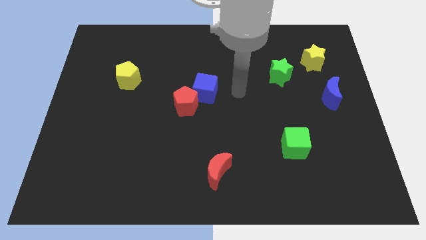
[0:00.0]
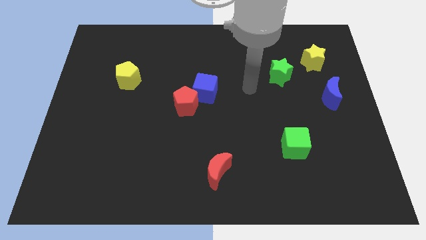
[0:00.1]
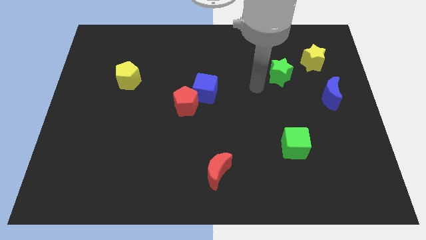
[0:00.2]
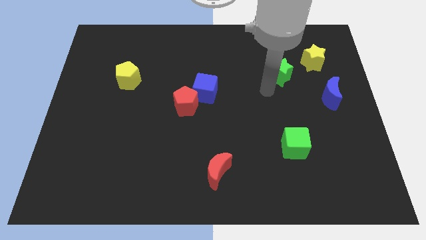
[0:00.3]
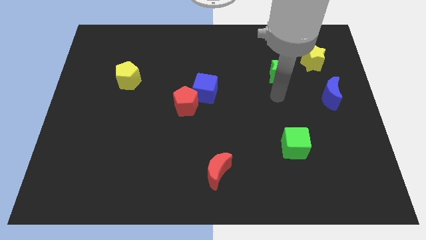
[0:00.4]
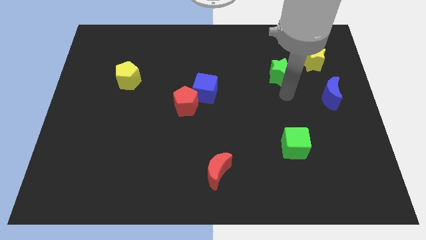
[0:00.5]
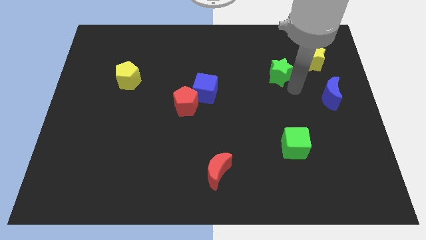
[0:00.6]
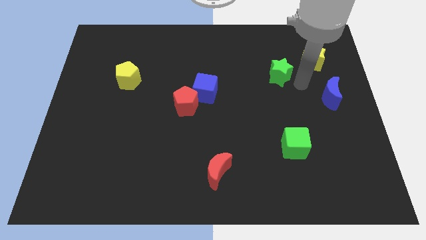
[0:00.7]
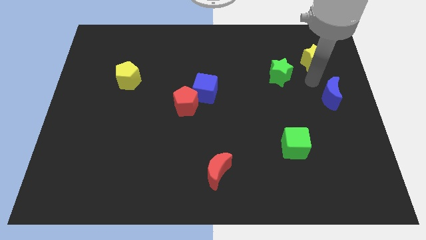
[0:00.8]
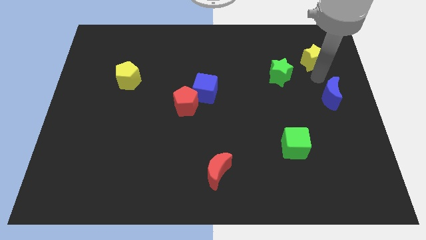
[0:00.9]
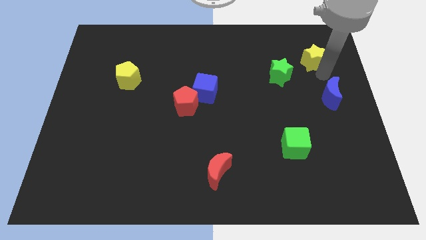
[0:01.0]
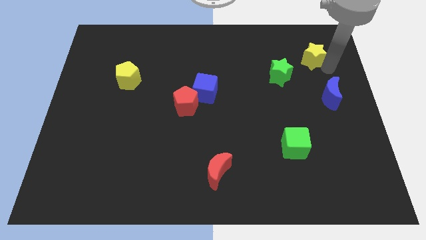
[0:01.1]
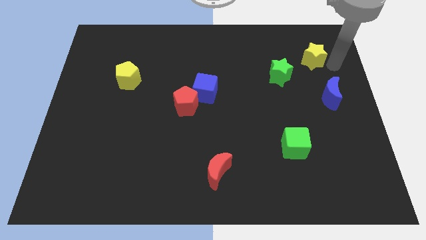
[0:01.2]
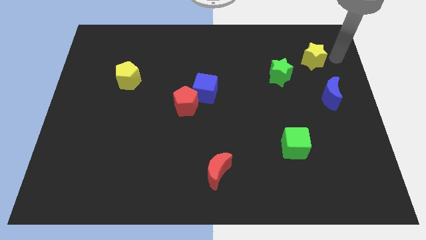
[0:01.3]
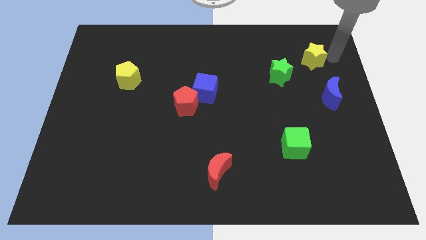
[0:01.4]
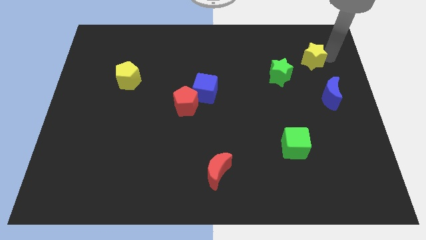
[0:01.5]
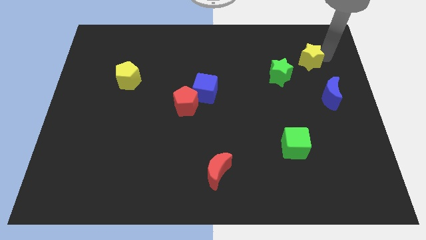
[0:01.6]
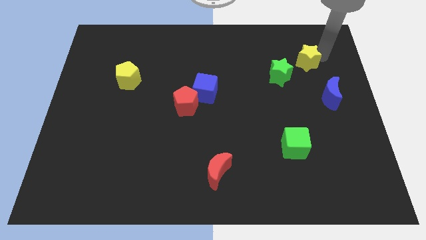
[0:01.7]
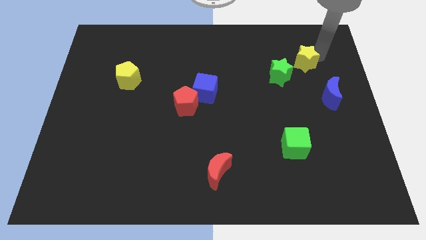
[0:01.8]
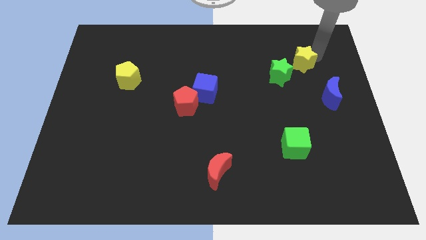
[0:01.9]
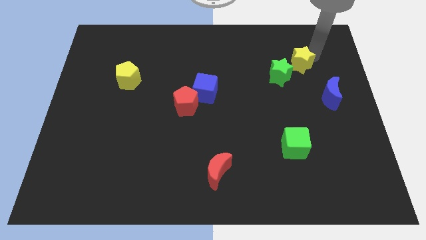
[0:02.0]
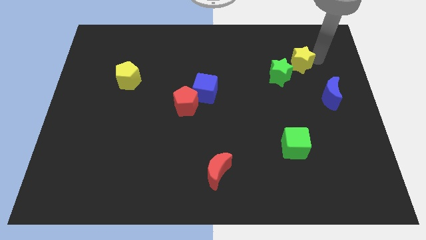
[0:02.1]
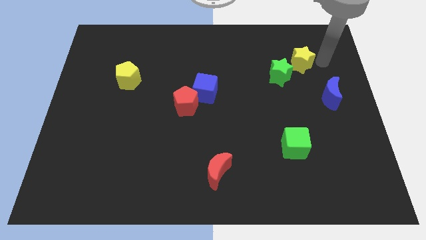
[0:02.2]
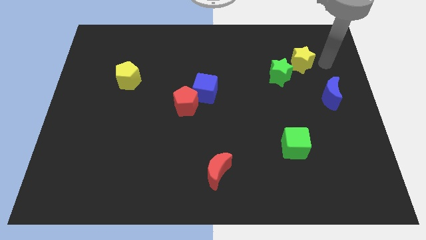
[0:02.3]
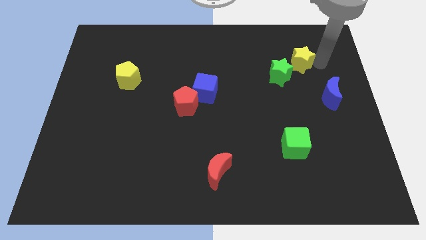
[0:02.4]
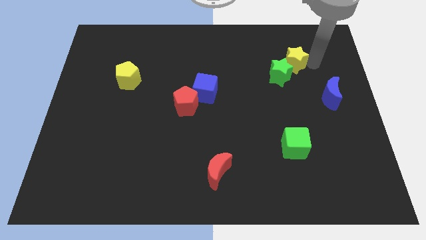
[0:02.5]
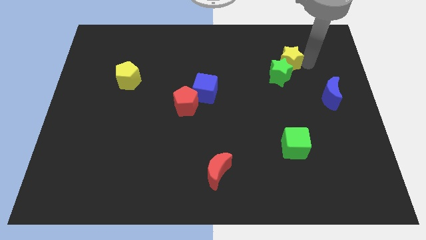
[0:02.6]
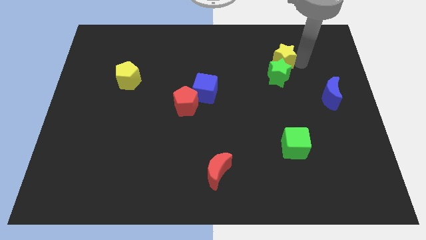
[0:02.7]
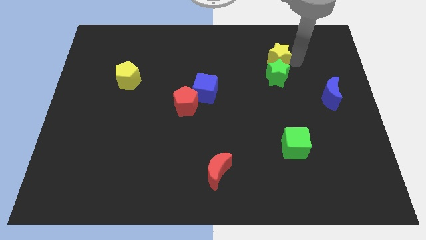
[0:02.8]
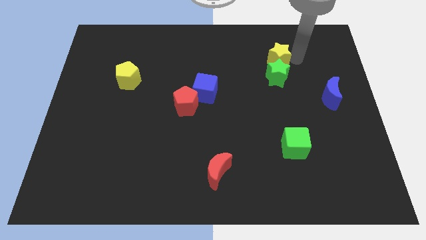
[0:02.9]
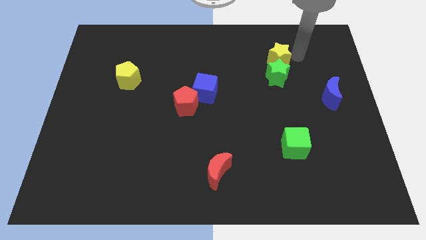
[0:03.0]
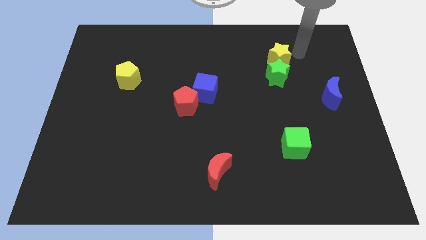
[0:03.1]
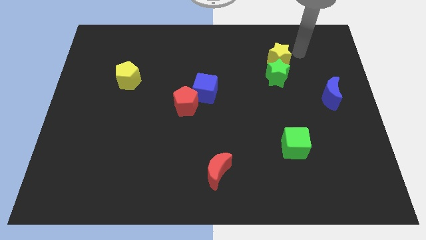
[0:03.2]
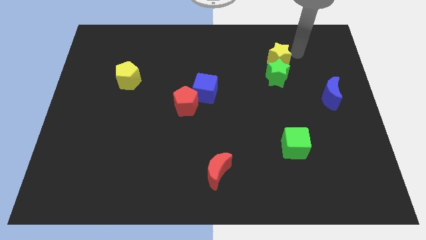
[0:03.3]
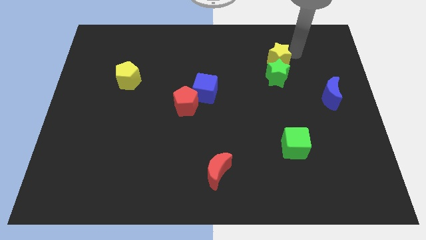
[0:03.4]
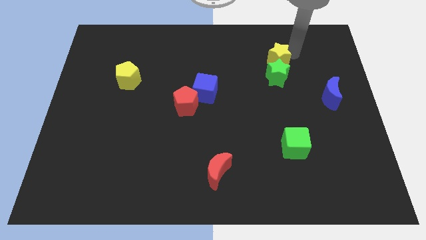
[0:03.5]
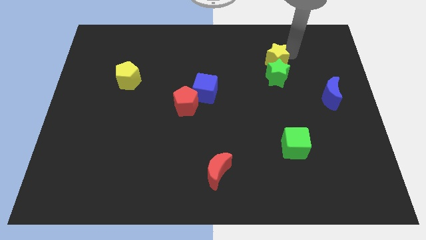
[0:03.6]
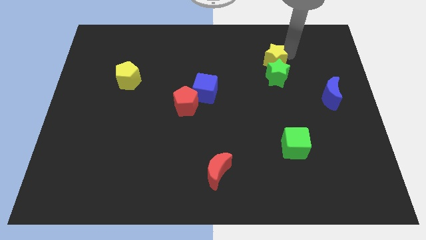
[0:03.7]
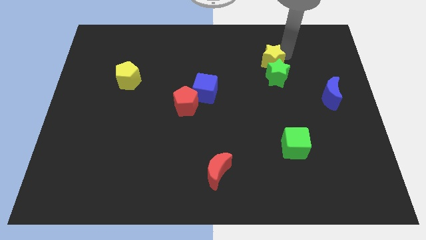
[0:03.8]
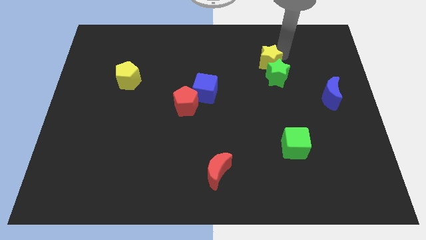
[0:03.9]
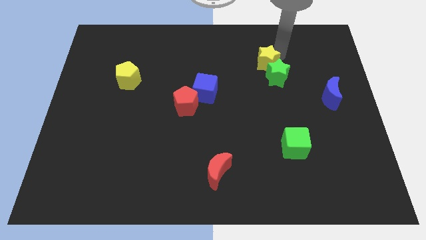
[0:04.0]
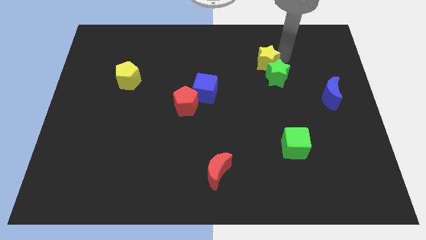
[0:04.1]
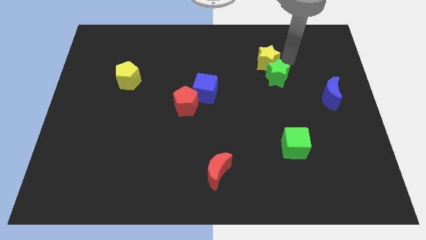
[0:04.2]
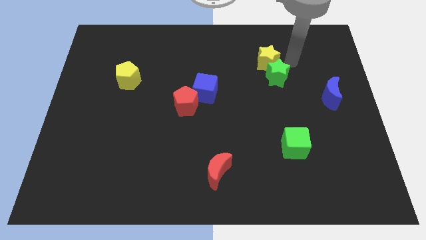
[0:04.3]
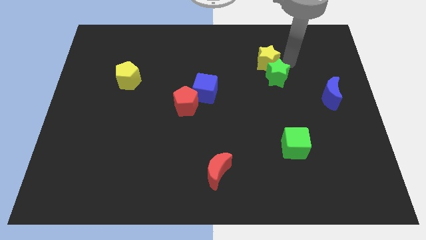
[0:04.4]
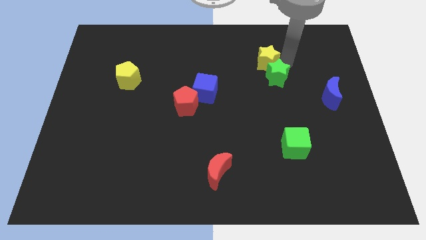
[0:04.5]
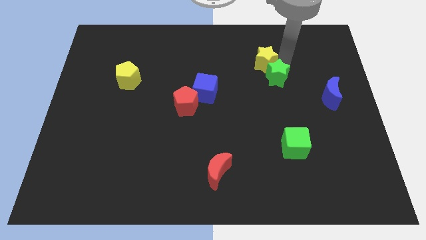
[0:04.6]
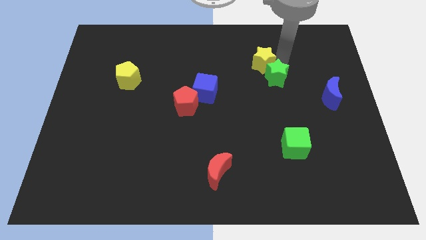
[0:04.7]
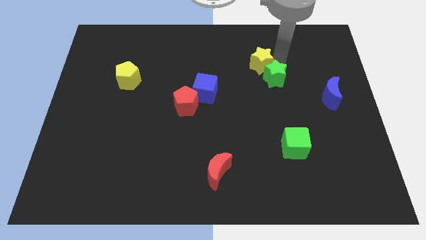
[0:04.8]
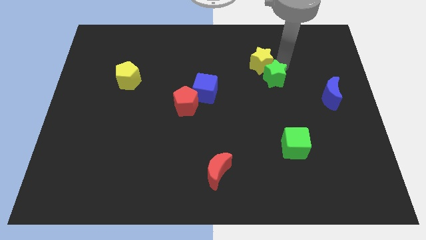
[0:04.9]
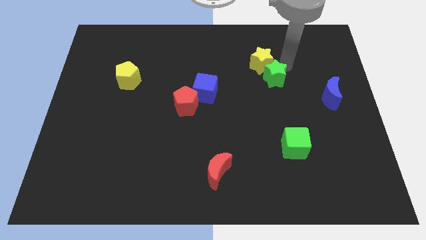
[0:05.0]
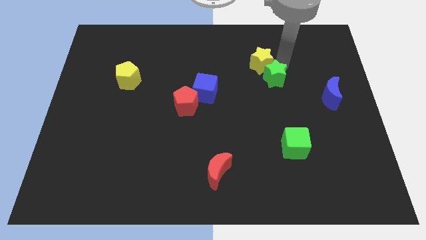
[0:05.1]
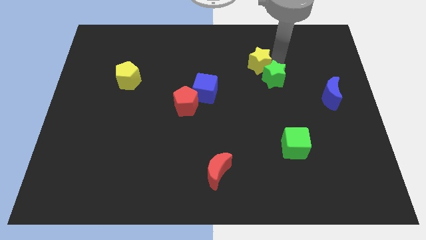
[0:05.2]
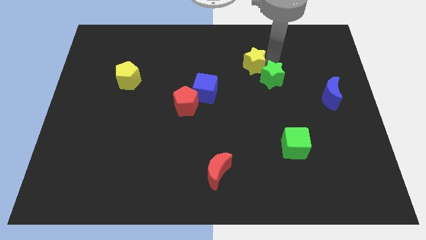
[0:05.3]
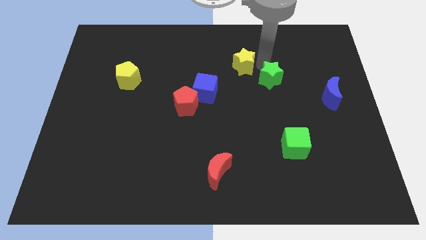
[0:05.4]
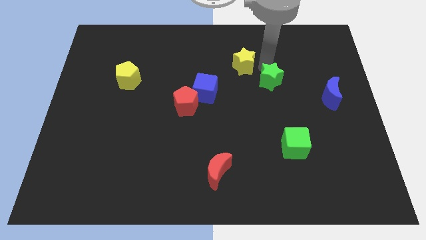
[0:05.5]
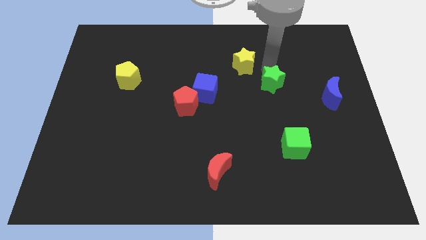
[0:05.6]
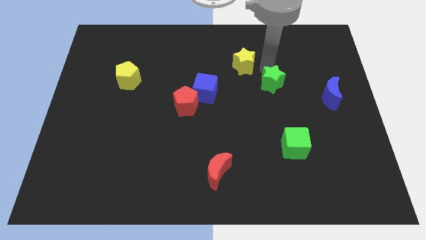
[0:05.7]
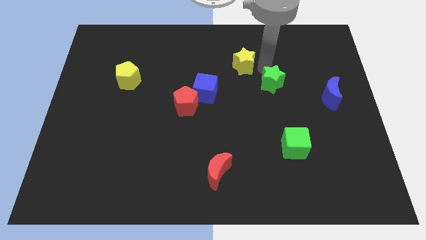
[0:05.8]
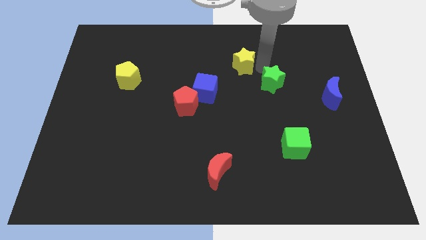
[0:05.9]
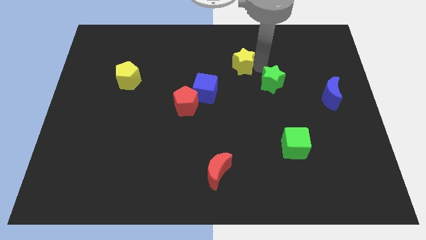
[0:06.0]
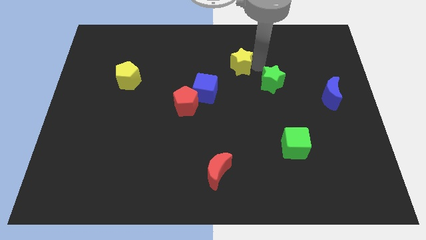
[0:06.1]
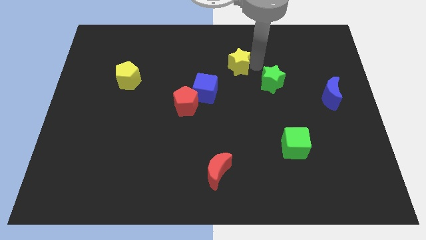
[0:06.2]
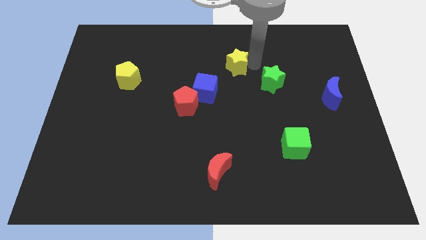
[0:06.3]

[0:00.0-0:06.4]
move the yellow star left

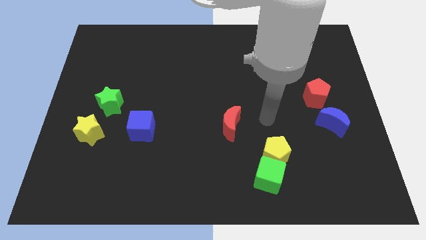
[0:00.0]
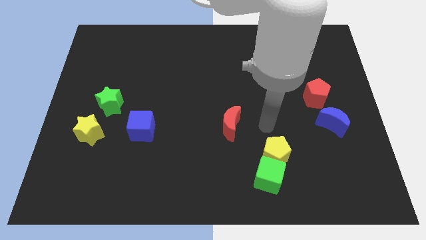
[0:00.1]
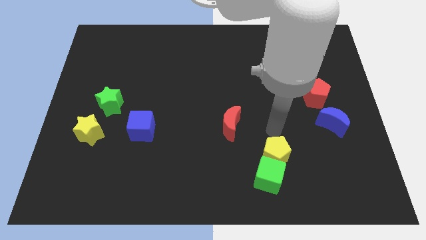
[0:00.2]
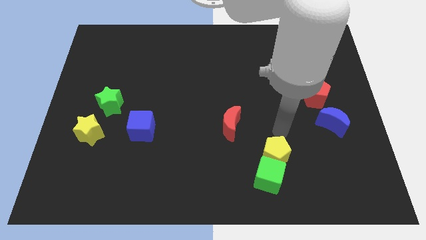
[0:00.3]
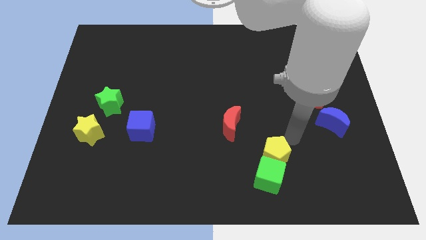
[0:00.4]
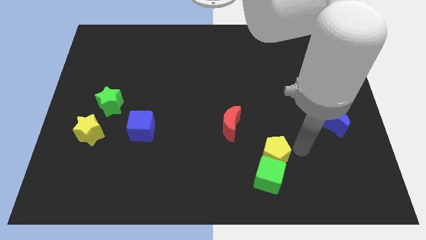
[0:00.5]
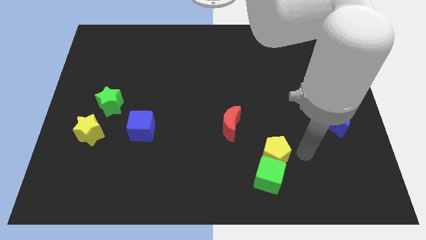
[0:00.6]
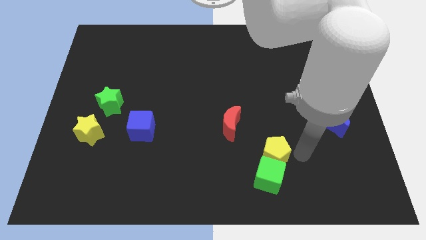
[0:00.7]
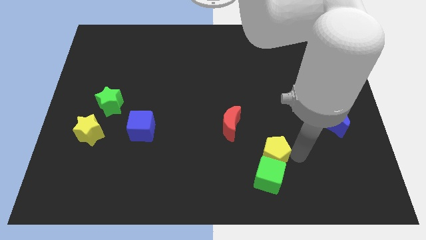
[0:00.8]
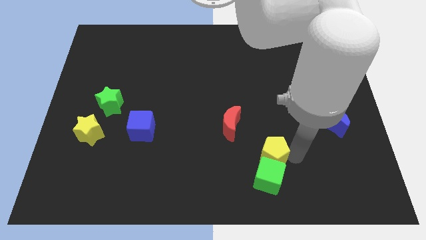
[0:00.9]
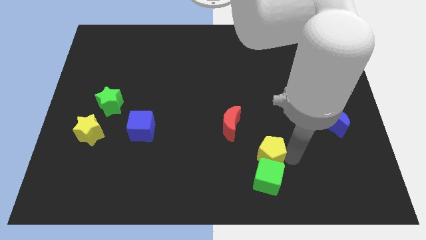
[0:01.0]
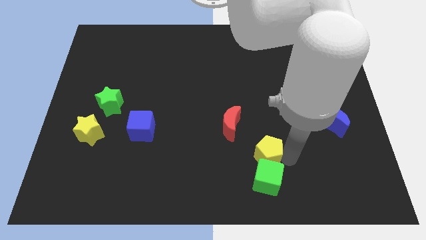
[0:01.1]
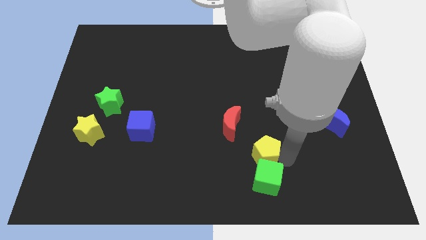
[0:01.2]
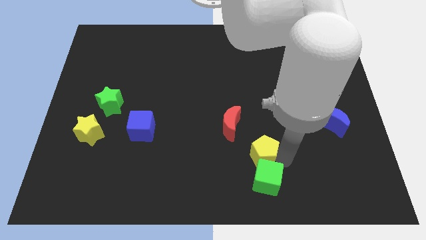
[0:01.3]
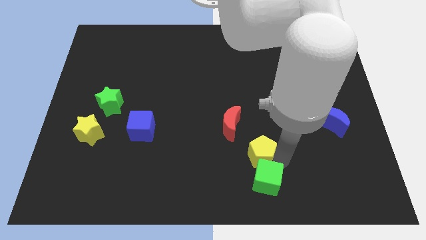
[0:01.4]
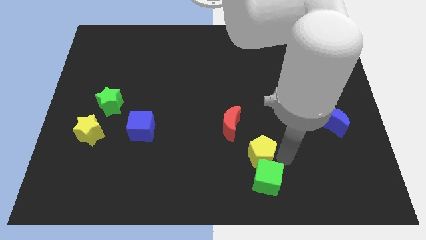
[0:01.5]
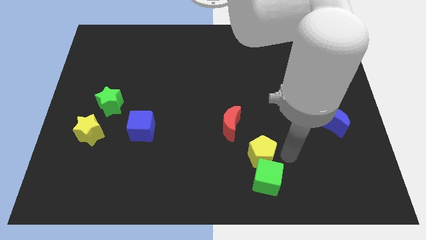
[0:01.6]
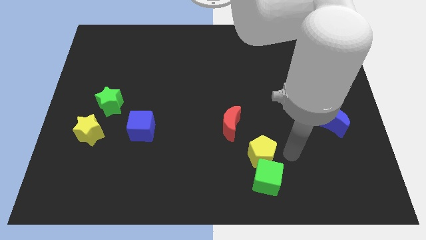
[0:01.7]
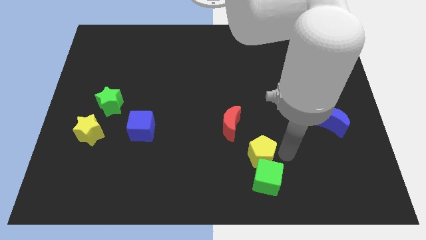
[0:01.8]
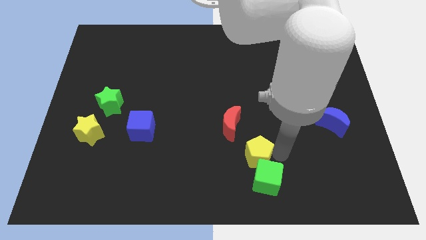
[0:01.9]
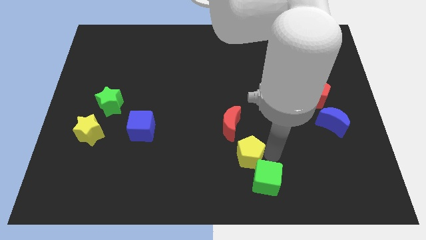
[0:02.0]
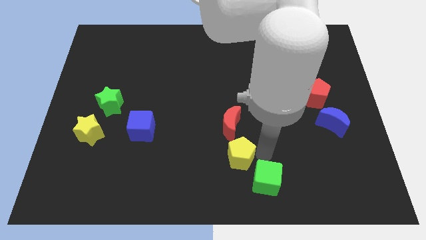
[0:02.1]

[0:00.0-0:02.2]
slide the yellow pentagon left slightly
